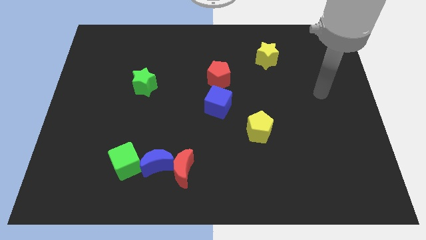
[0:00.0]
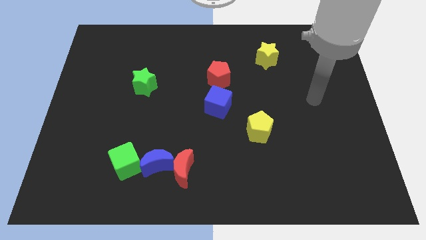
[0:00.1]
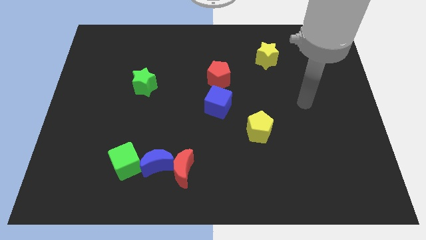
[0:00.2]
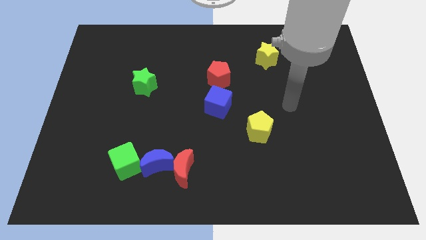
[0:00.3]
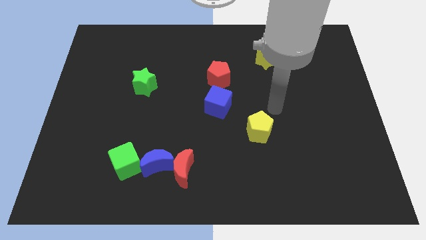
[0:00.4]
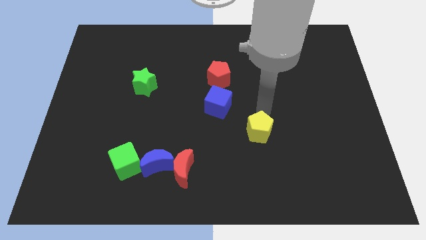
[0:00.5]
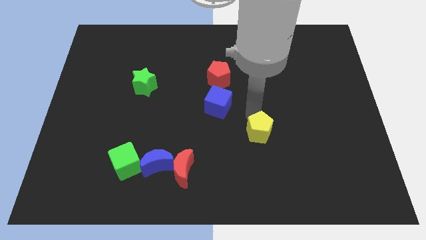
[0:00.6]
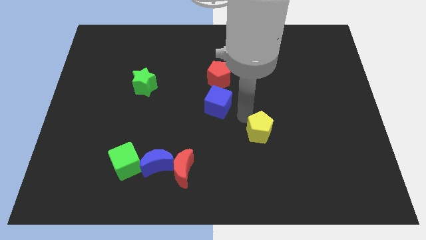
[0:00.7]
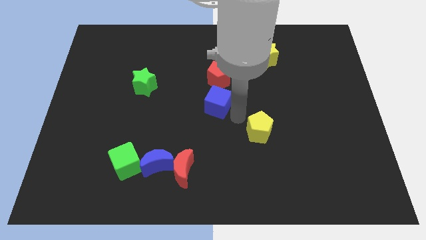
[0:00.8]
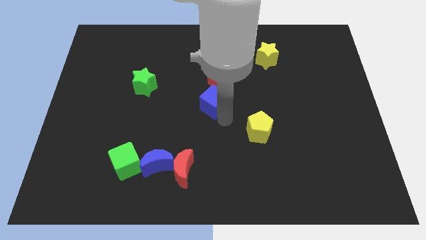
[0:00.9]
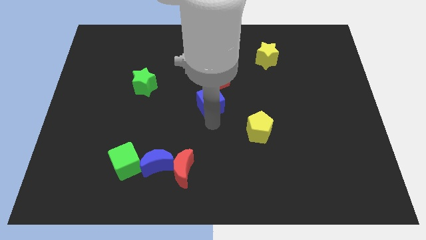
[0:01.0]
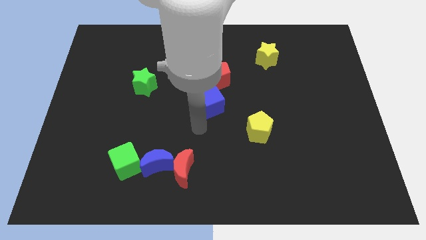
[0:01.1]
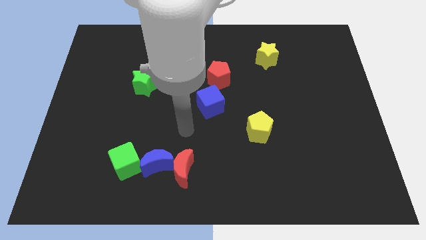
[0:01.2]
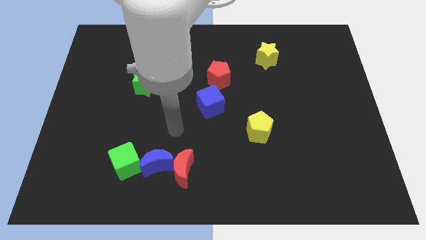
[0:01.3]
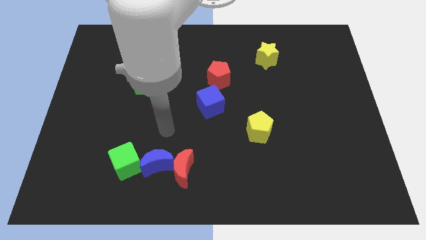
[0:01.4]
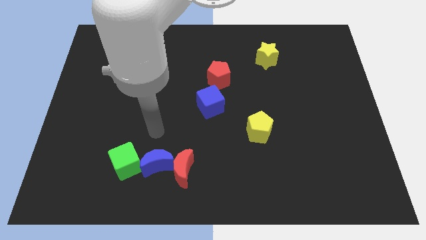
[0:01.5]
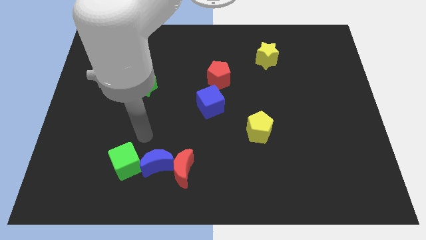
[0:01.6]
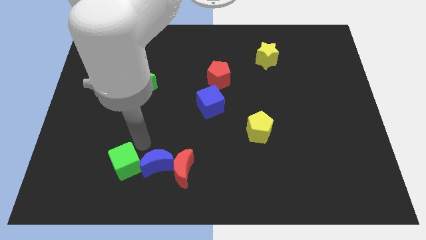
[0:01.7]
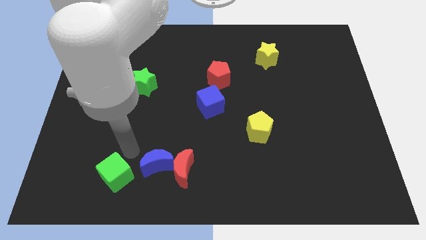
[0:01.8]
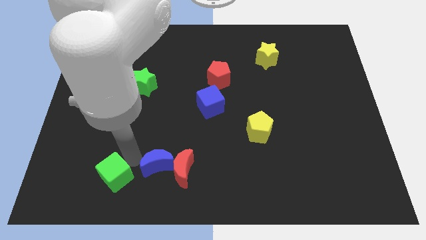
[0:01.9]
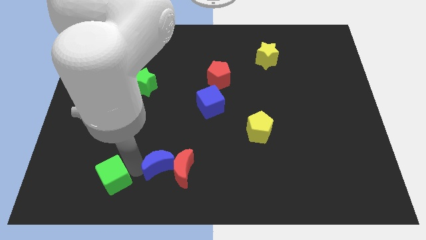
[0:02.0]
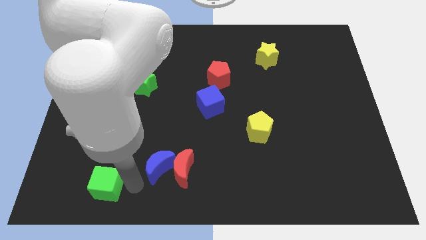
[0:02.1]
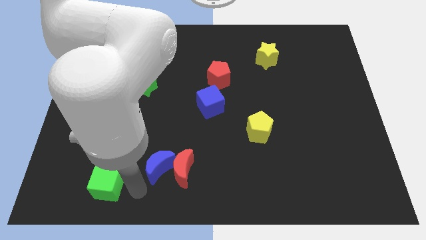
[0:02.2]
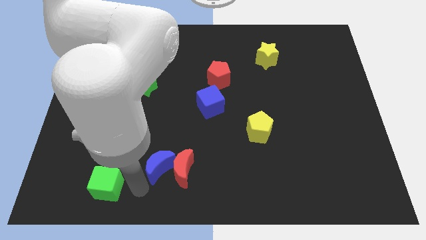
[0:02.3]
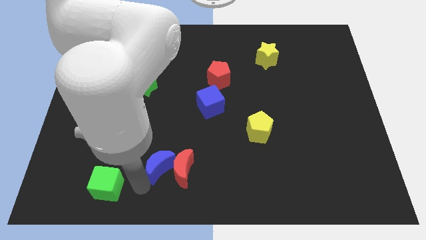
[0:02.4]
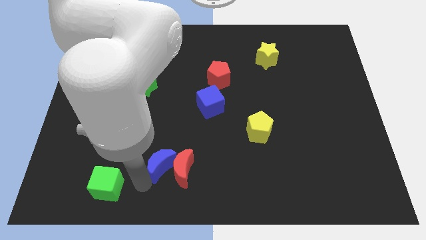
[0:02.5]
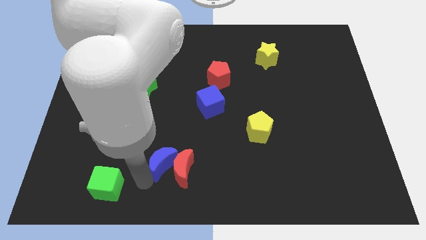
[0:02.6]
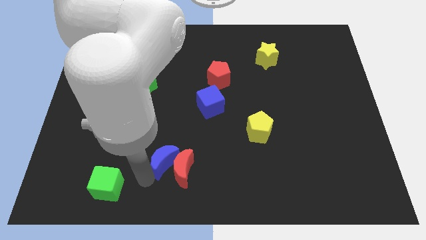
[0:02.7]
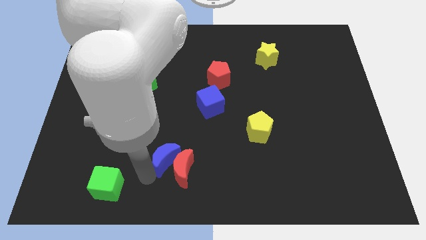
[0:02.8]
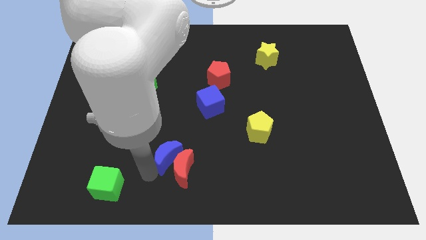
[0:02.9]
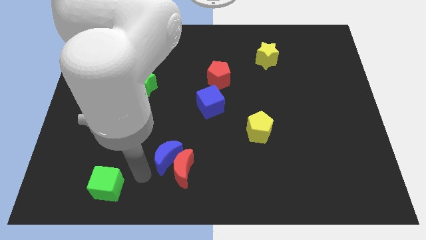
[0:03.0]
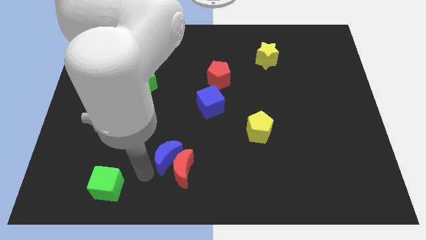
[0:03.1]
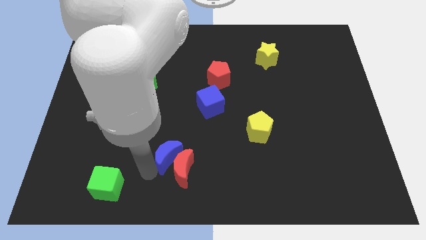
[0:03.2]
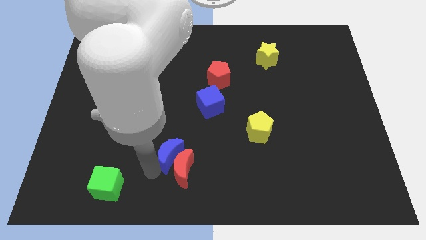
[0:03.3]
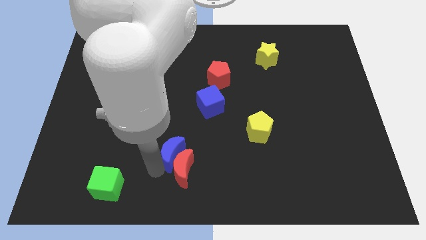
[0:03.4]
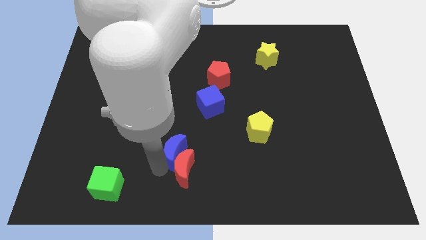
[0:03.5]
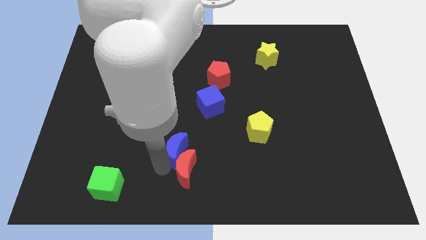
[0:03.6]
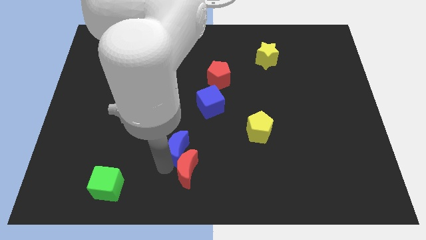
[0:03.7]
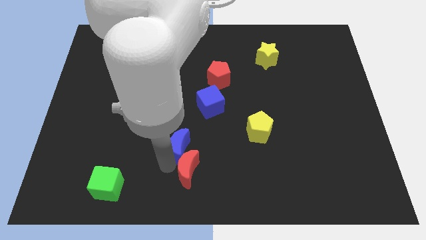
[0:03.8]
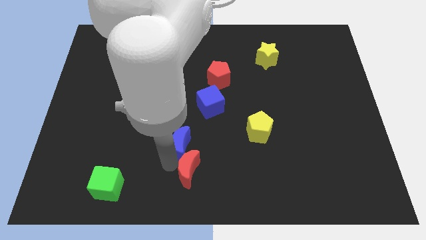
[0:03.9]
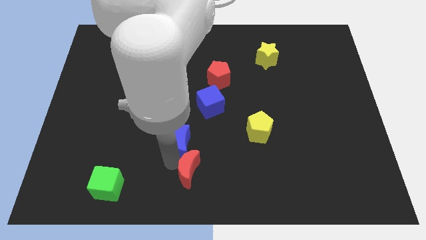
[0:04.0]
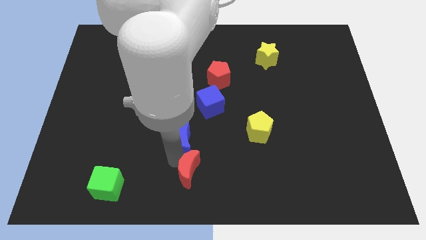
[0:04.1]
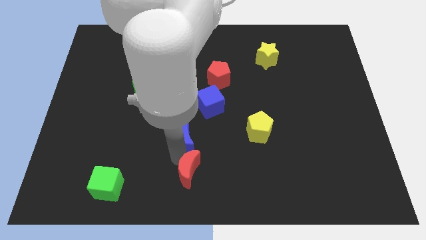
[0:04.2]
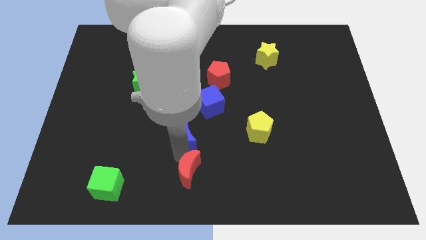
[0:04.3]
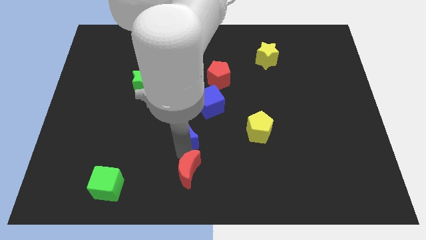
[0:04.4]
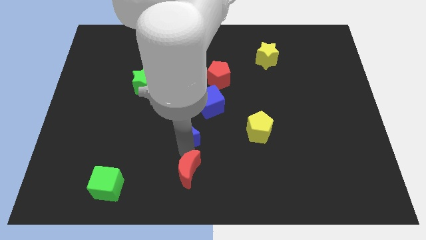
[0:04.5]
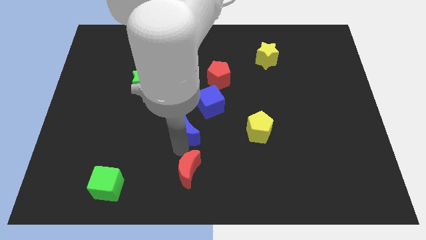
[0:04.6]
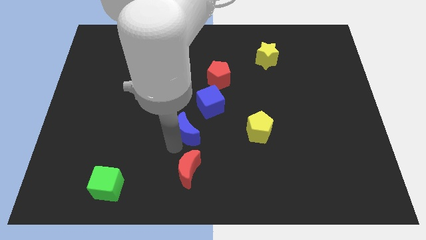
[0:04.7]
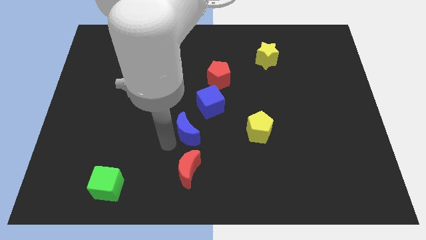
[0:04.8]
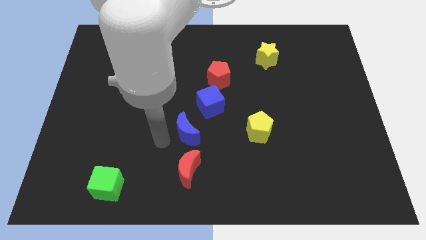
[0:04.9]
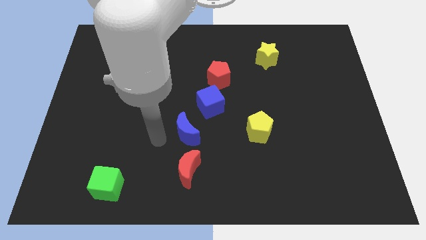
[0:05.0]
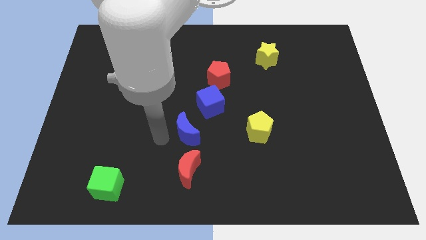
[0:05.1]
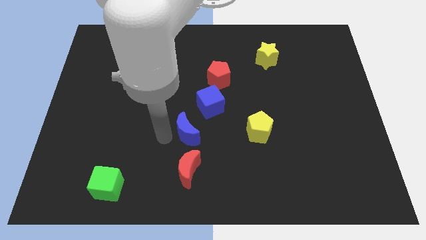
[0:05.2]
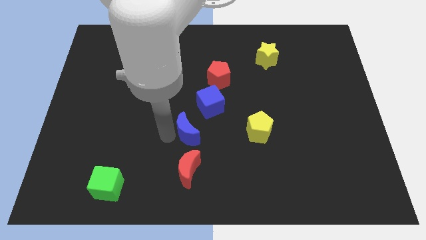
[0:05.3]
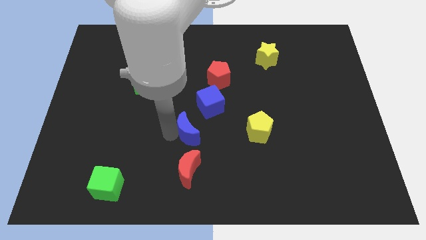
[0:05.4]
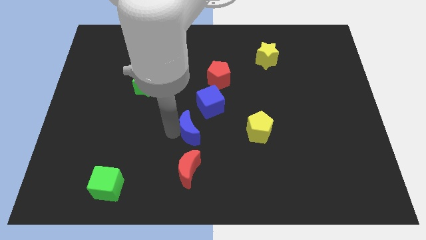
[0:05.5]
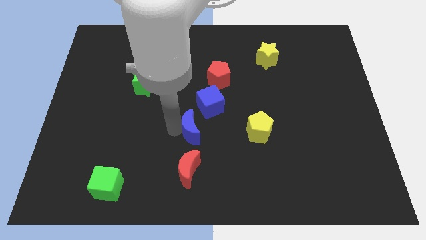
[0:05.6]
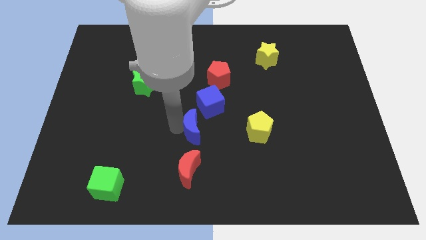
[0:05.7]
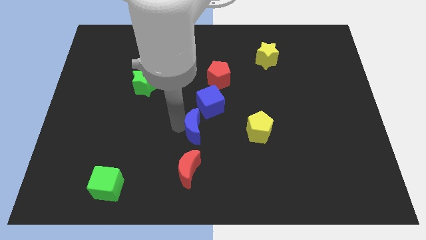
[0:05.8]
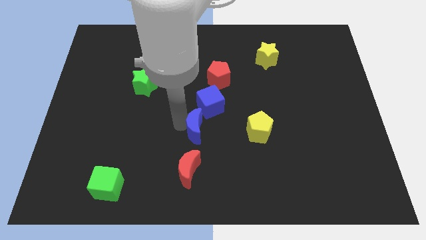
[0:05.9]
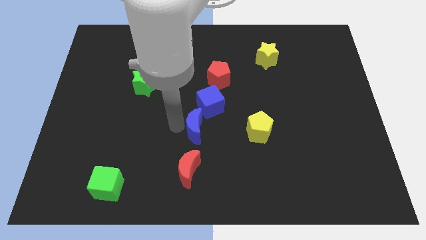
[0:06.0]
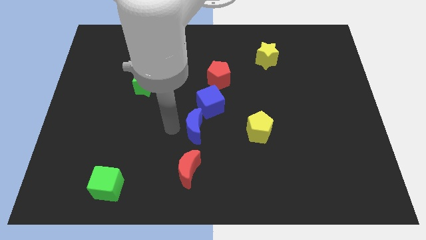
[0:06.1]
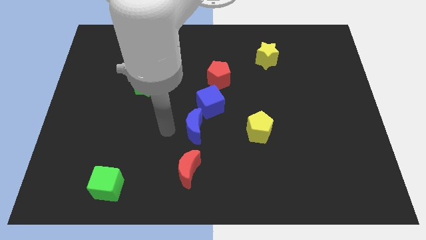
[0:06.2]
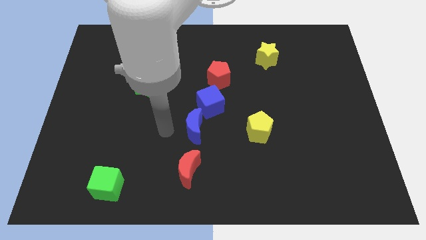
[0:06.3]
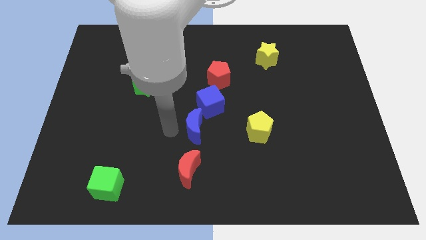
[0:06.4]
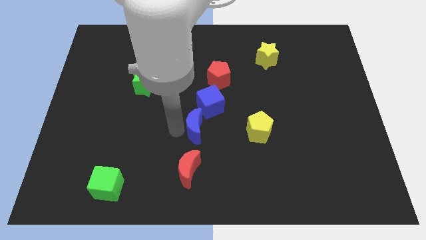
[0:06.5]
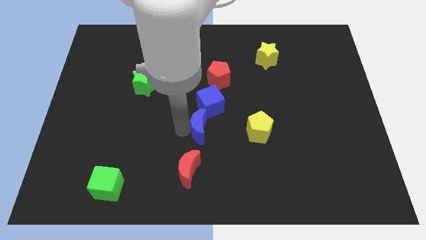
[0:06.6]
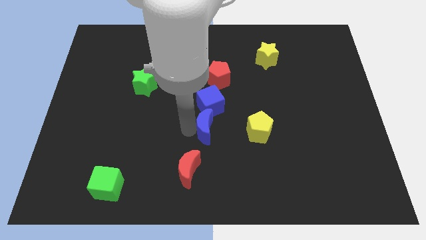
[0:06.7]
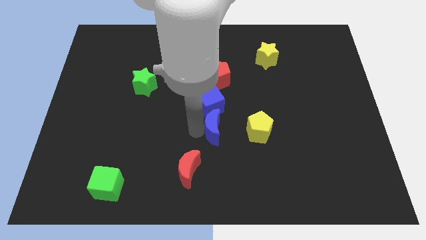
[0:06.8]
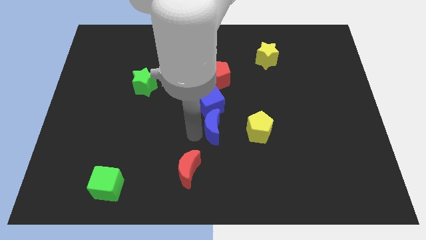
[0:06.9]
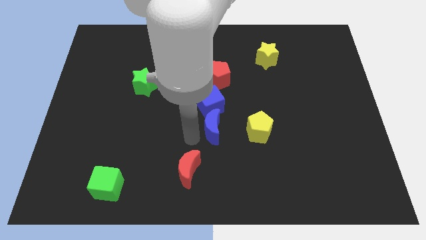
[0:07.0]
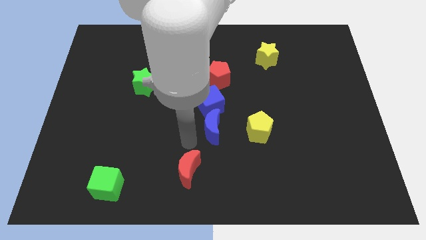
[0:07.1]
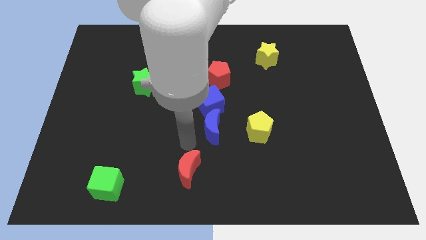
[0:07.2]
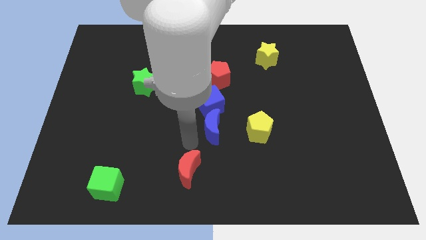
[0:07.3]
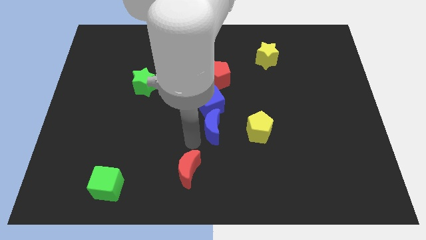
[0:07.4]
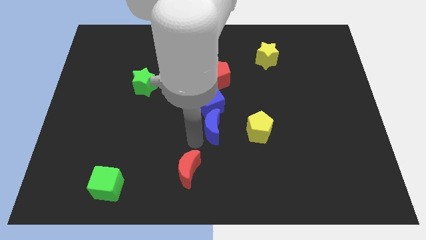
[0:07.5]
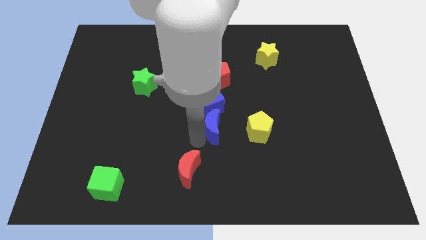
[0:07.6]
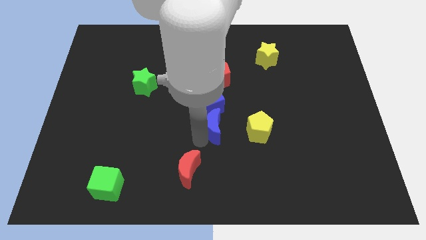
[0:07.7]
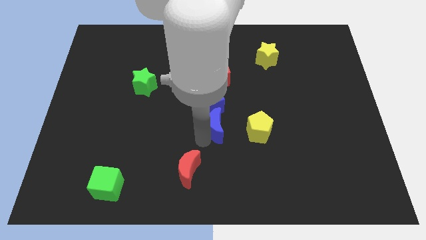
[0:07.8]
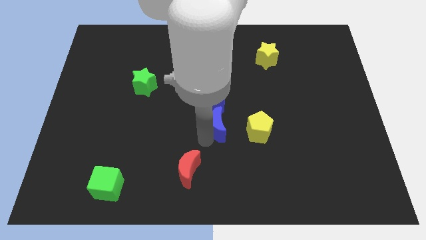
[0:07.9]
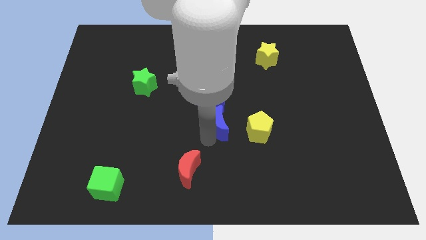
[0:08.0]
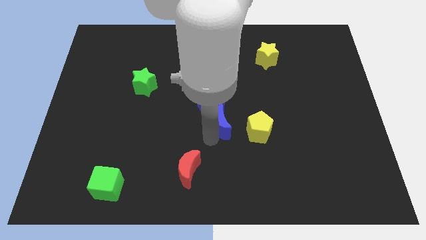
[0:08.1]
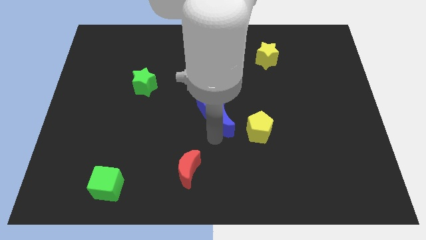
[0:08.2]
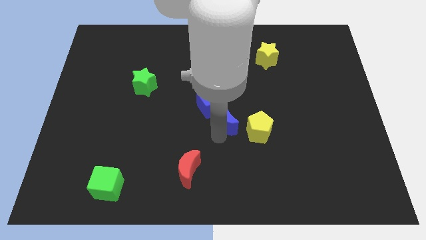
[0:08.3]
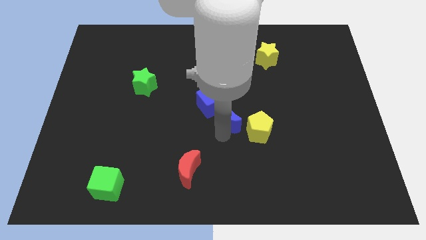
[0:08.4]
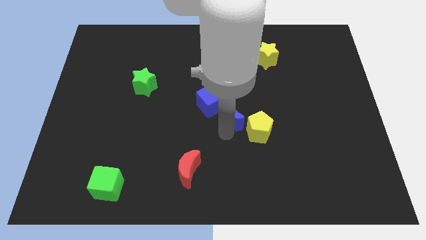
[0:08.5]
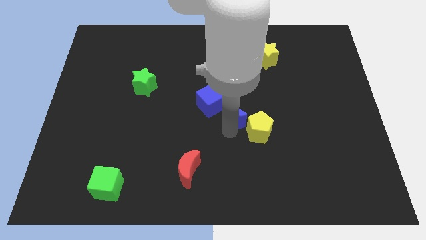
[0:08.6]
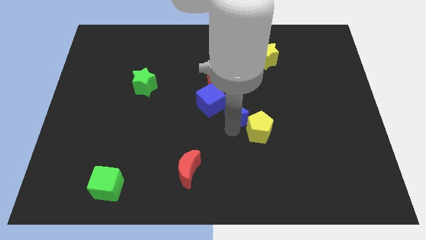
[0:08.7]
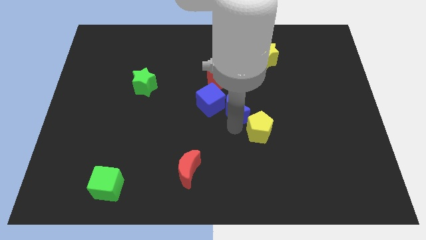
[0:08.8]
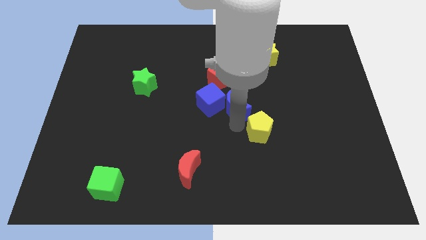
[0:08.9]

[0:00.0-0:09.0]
push the blue moon to the bottom right side of the red pentagon
